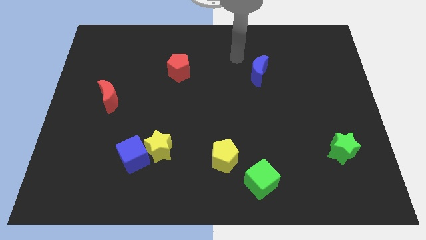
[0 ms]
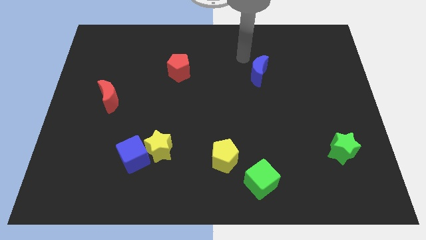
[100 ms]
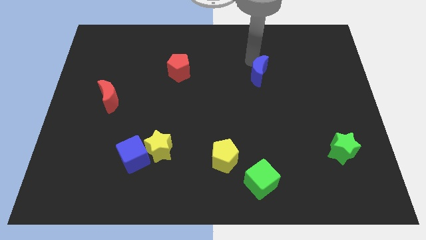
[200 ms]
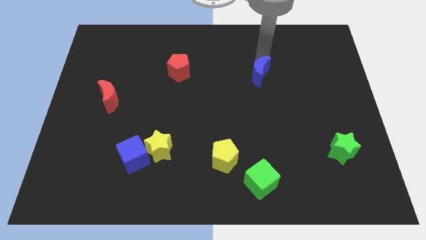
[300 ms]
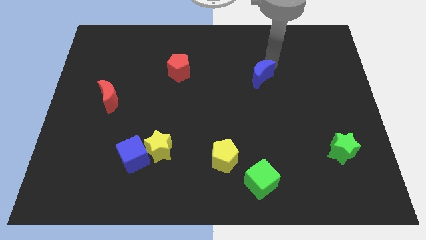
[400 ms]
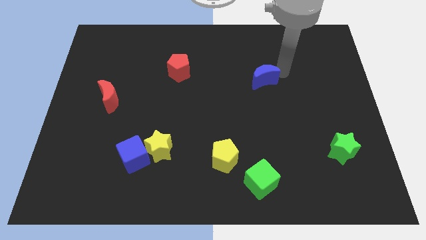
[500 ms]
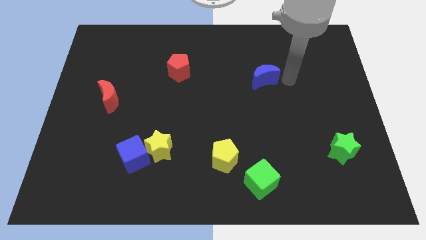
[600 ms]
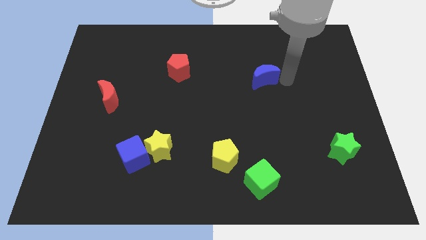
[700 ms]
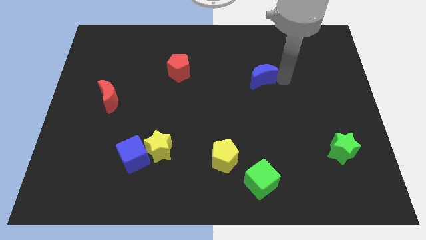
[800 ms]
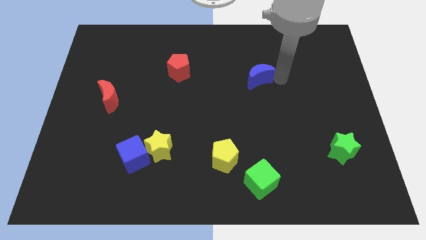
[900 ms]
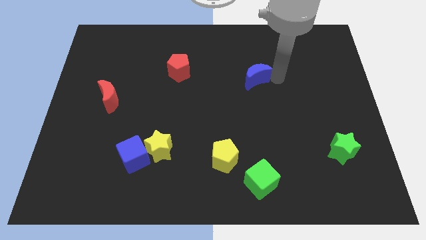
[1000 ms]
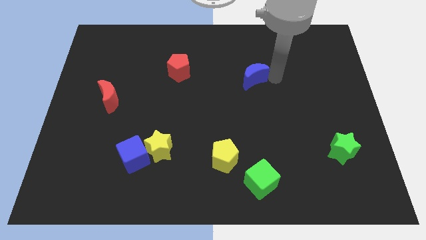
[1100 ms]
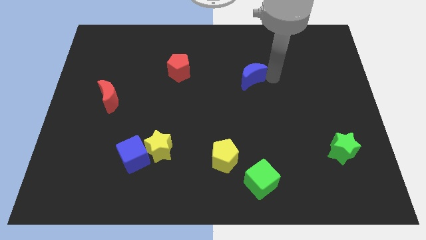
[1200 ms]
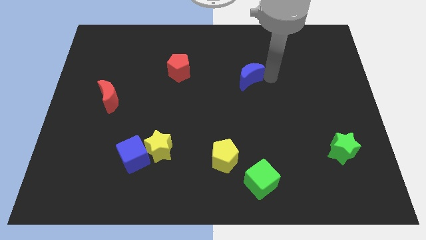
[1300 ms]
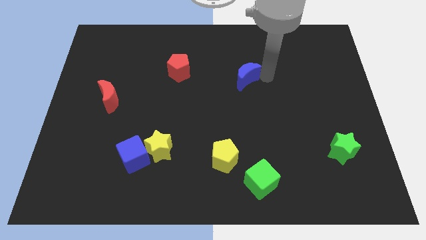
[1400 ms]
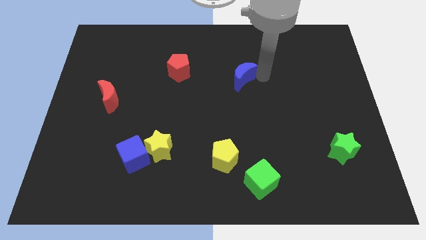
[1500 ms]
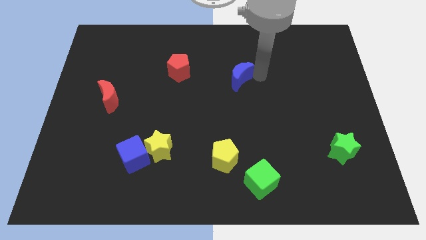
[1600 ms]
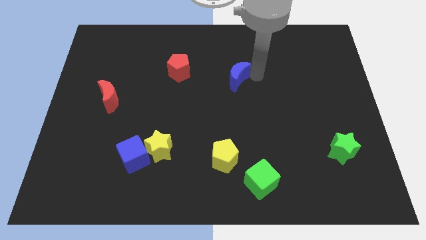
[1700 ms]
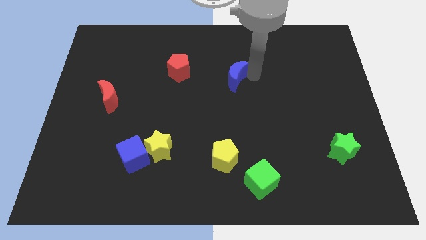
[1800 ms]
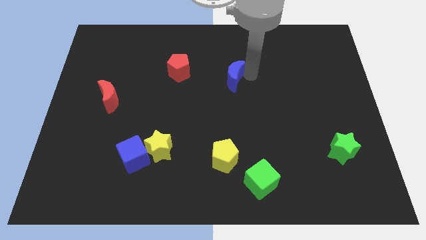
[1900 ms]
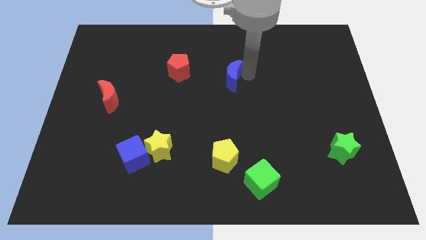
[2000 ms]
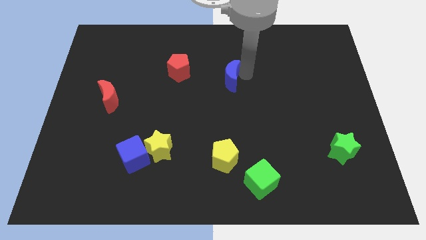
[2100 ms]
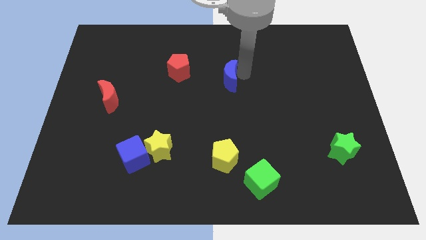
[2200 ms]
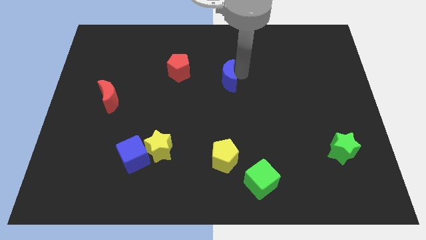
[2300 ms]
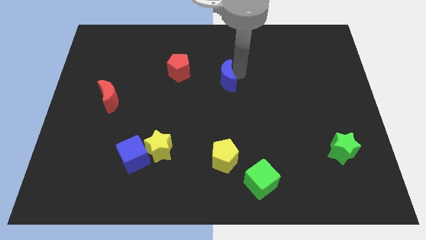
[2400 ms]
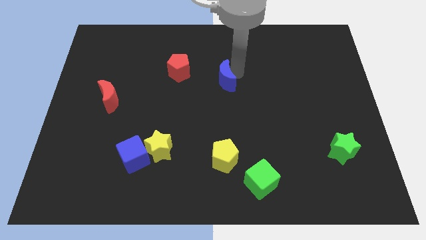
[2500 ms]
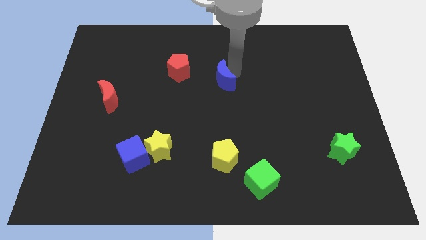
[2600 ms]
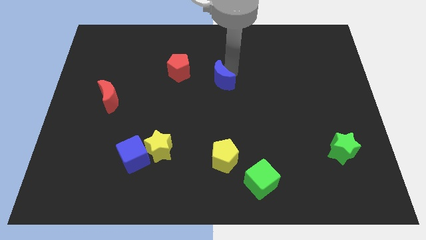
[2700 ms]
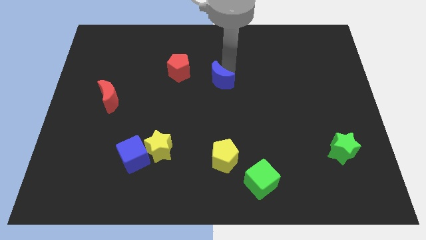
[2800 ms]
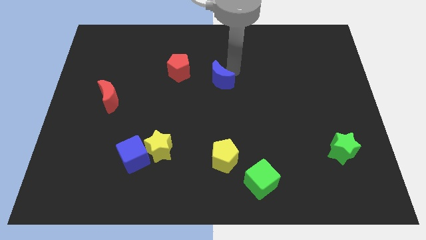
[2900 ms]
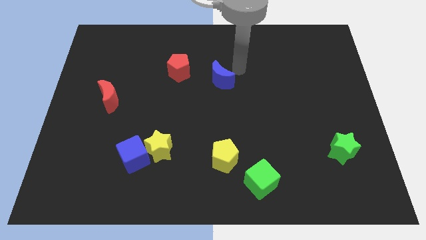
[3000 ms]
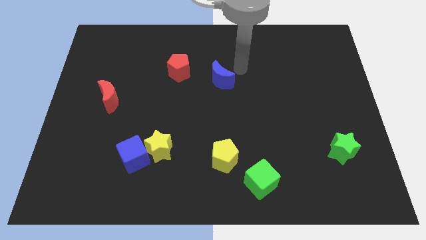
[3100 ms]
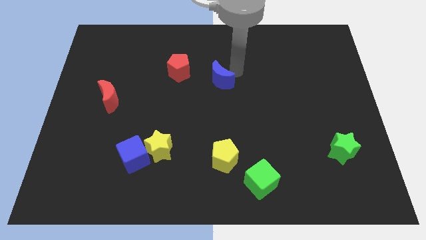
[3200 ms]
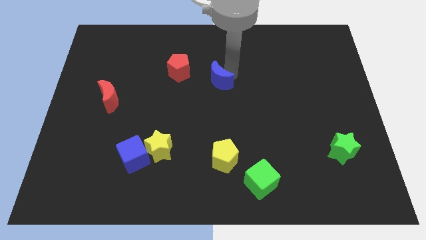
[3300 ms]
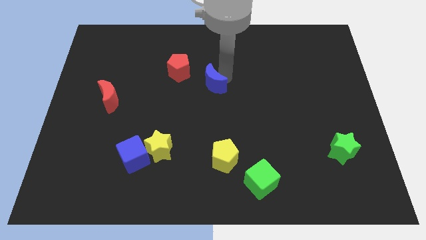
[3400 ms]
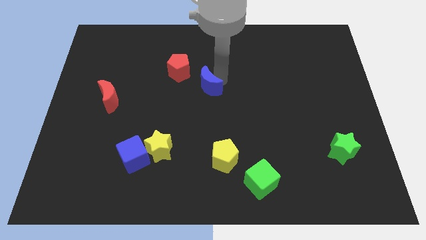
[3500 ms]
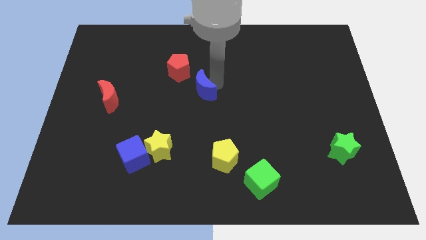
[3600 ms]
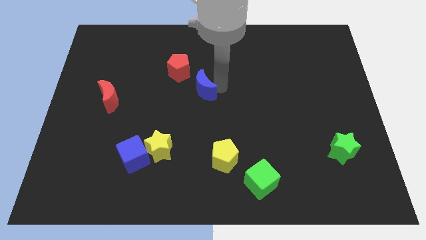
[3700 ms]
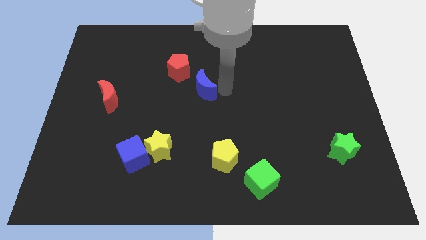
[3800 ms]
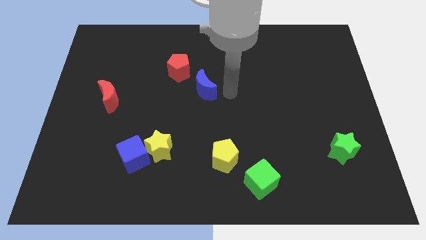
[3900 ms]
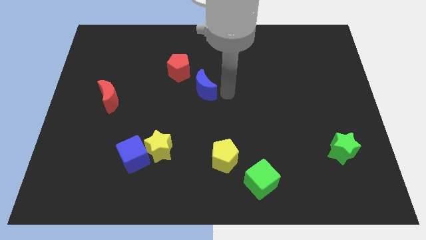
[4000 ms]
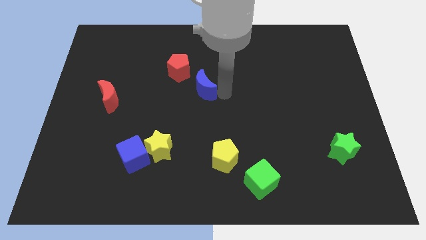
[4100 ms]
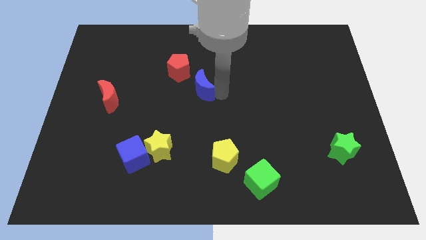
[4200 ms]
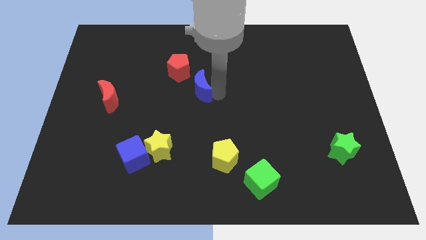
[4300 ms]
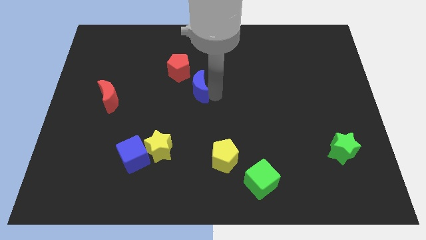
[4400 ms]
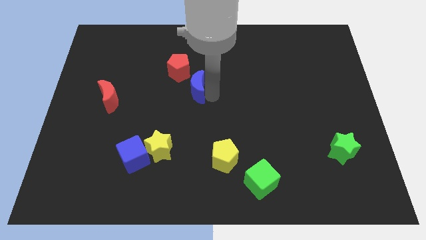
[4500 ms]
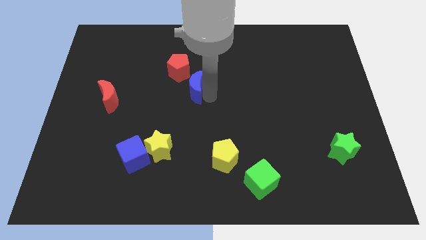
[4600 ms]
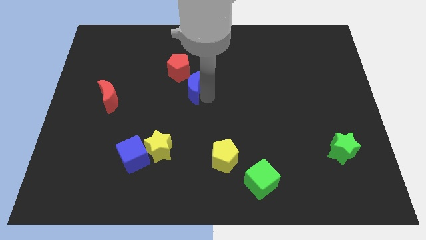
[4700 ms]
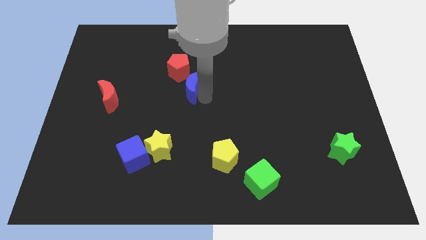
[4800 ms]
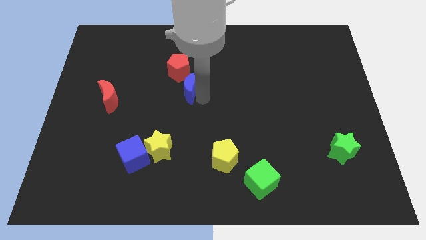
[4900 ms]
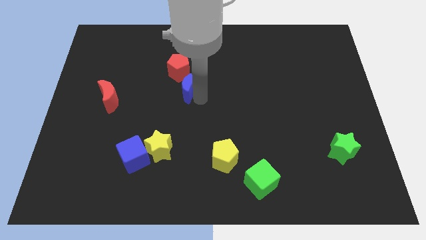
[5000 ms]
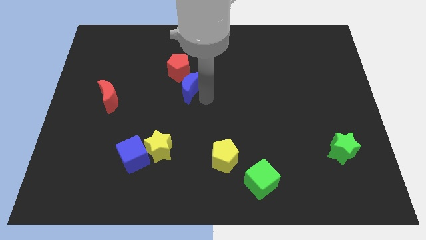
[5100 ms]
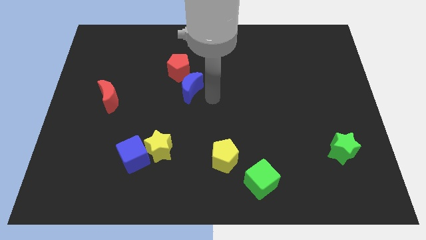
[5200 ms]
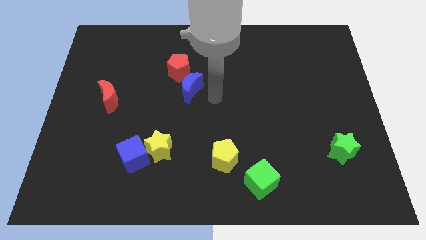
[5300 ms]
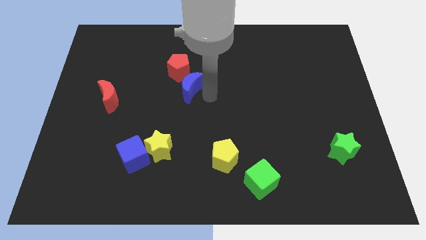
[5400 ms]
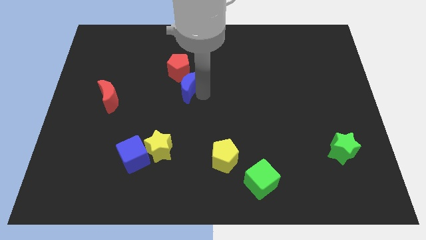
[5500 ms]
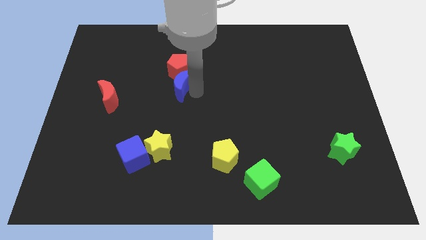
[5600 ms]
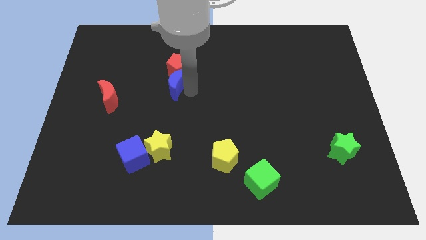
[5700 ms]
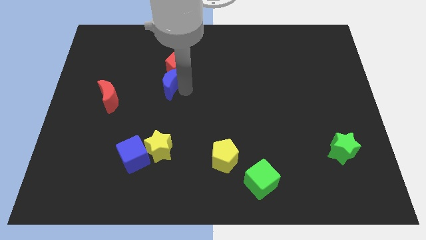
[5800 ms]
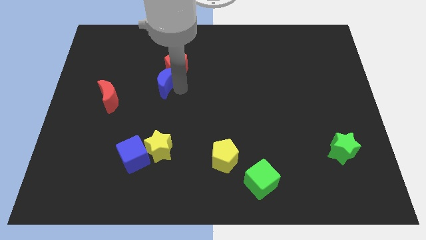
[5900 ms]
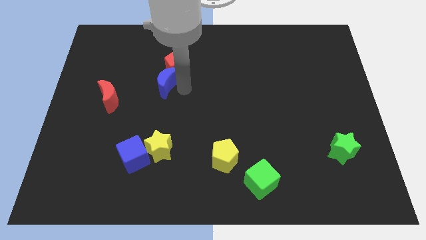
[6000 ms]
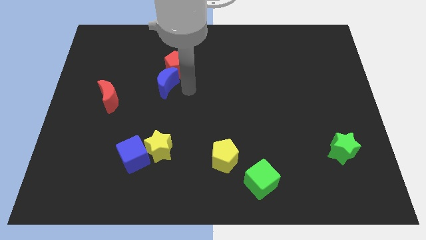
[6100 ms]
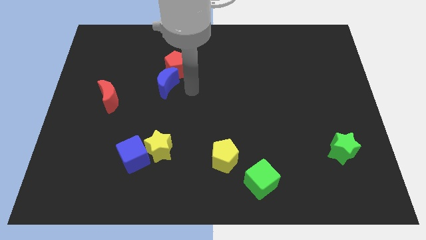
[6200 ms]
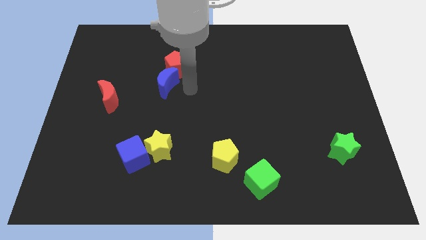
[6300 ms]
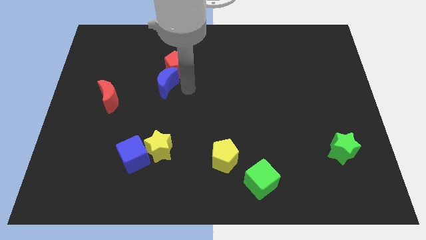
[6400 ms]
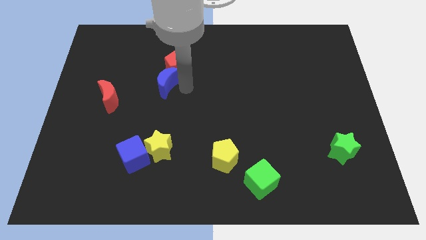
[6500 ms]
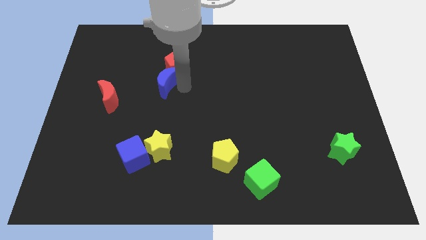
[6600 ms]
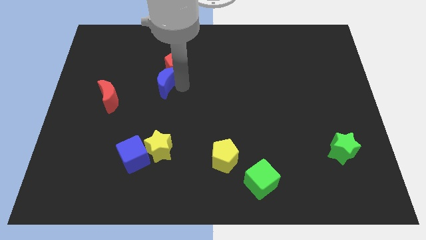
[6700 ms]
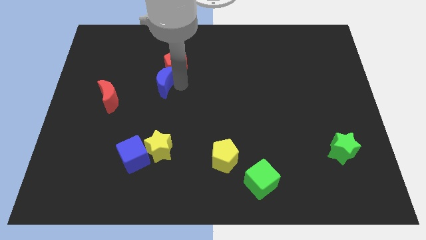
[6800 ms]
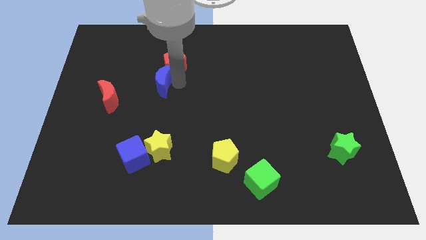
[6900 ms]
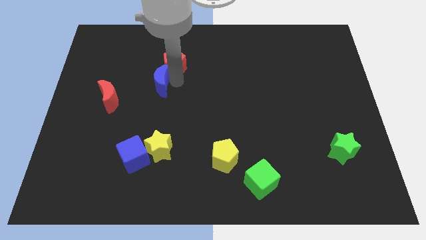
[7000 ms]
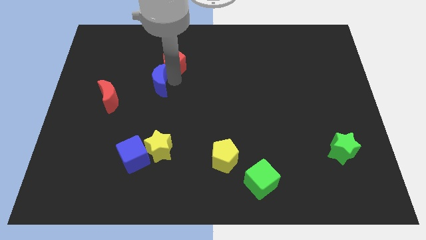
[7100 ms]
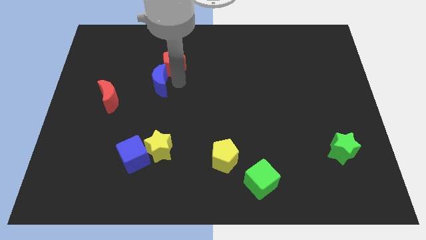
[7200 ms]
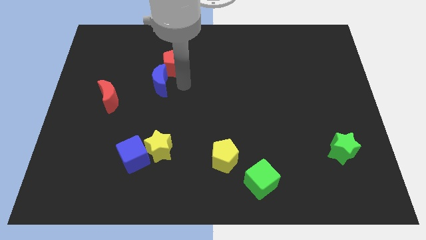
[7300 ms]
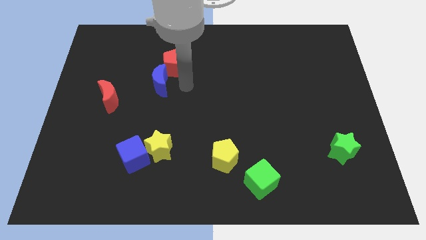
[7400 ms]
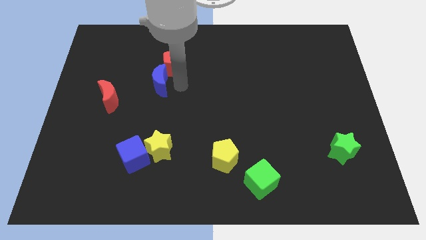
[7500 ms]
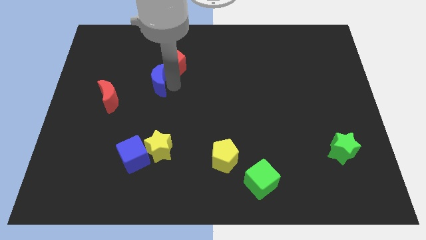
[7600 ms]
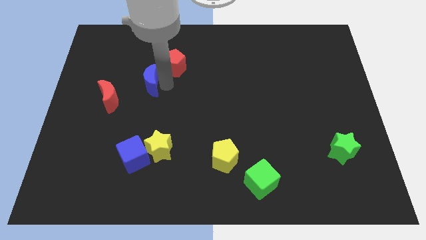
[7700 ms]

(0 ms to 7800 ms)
move the blue moon to the top right of the red moon
